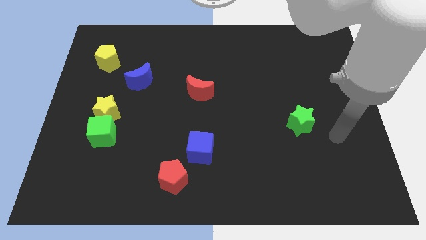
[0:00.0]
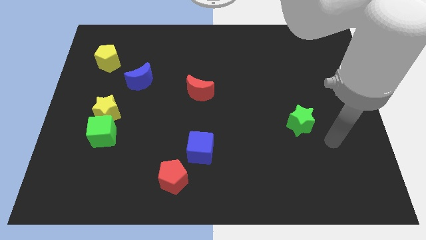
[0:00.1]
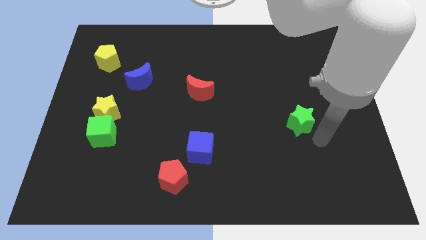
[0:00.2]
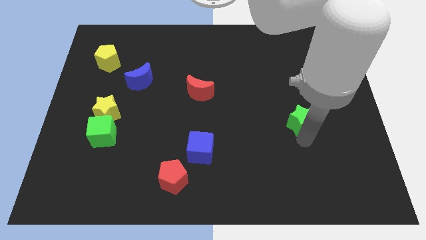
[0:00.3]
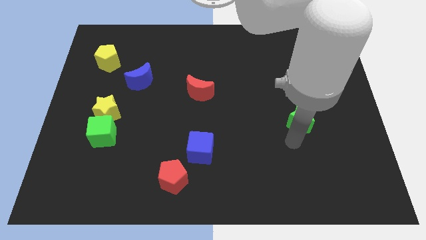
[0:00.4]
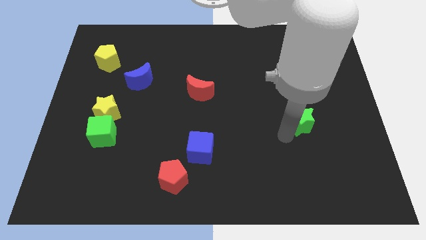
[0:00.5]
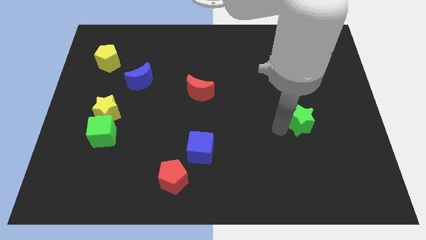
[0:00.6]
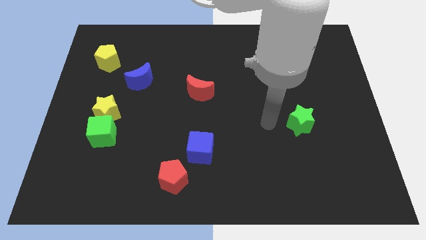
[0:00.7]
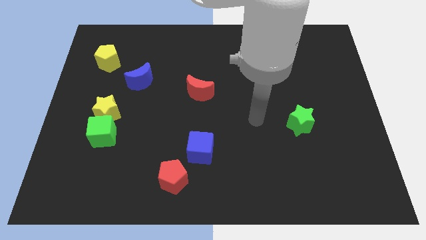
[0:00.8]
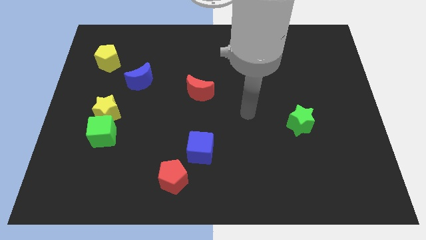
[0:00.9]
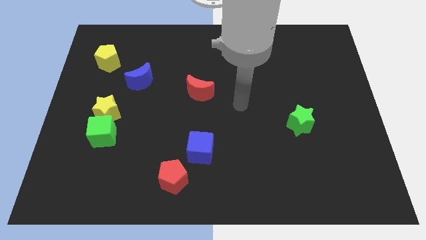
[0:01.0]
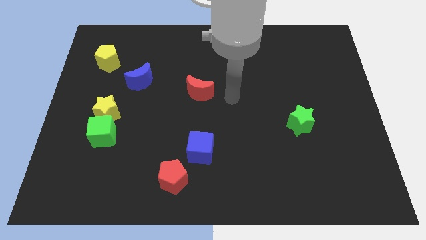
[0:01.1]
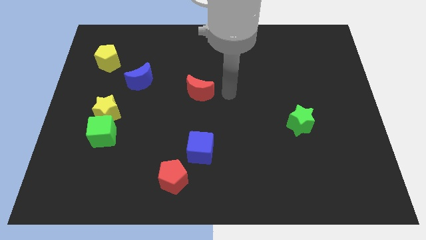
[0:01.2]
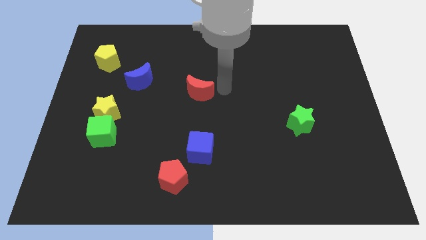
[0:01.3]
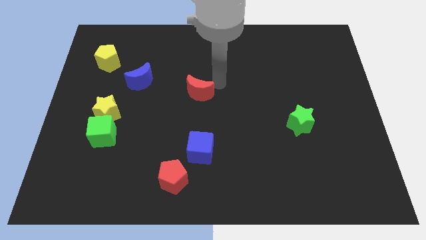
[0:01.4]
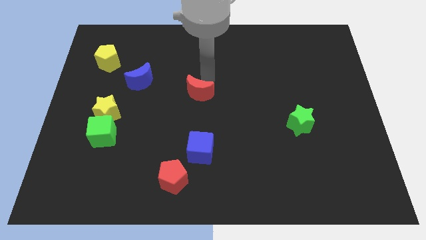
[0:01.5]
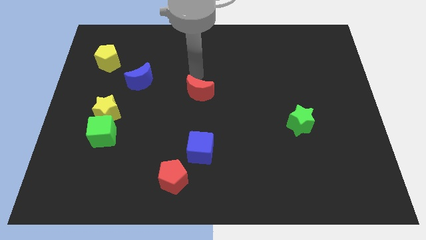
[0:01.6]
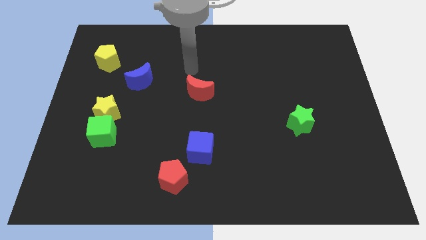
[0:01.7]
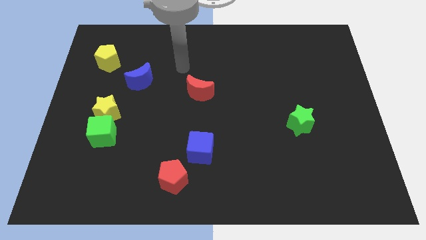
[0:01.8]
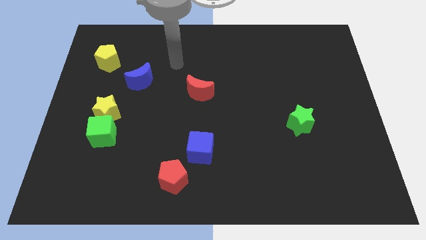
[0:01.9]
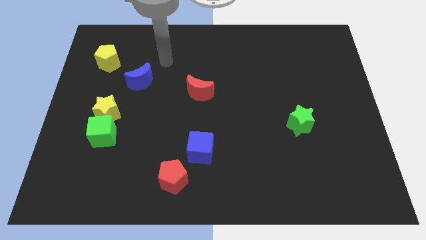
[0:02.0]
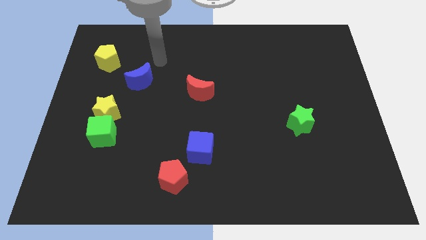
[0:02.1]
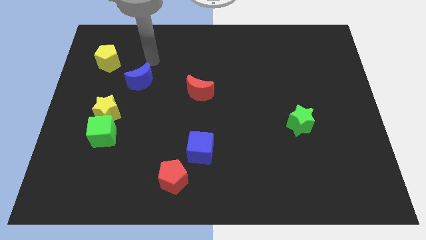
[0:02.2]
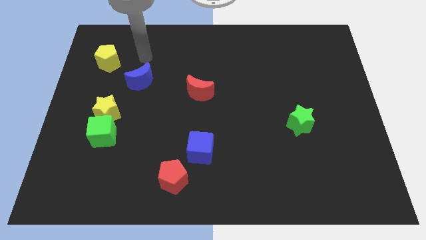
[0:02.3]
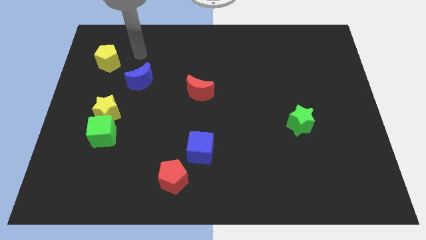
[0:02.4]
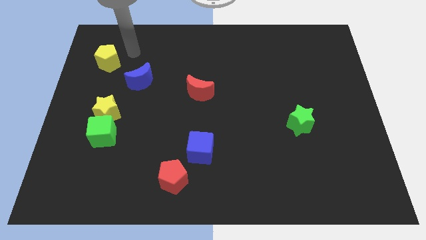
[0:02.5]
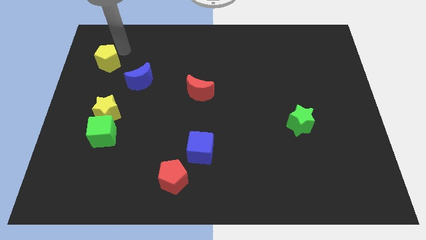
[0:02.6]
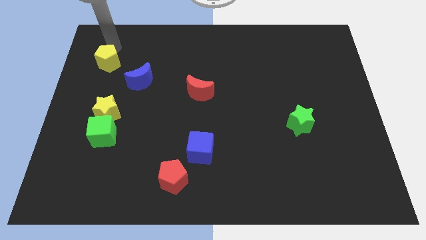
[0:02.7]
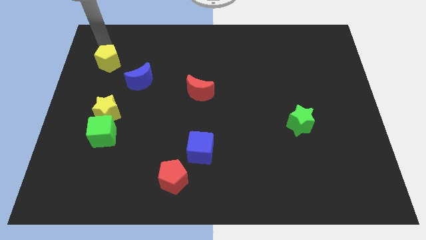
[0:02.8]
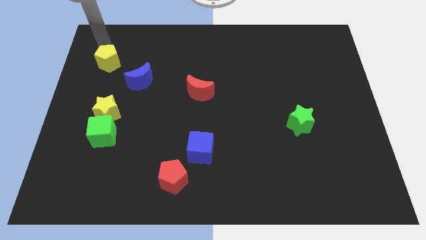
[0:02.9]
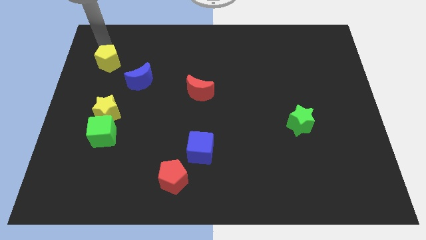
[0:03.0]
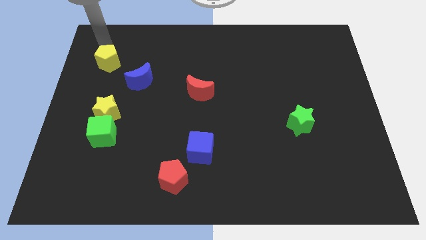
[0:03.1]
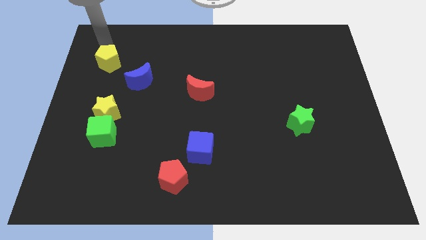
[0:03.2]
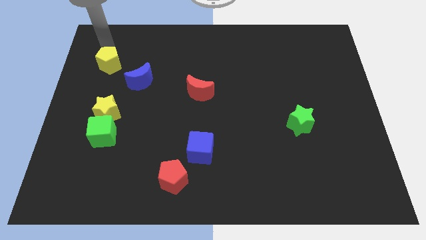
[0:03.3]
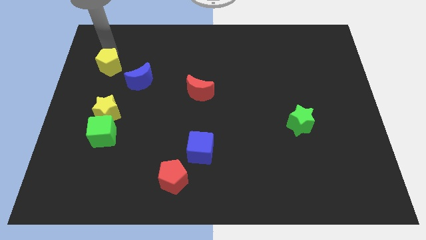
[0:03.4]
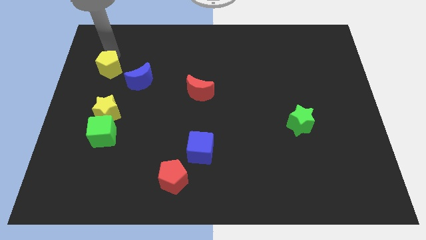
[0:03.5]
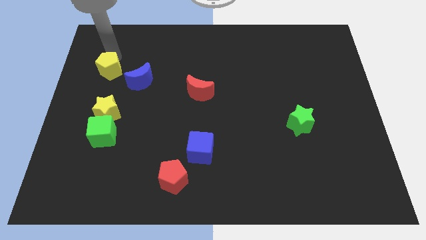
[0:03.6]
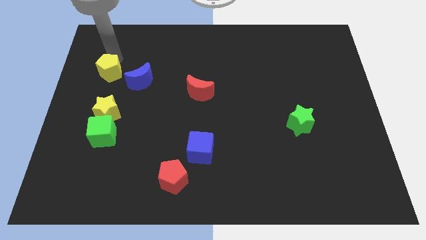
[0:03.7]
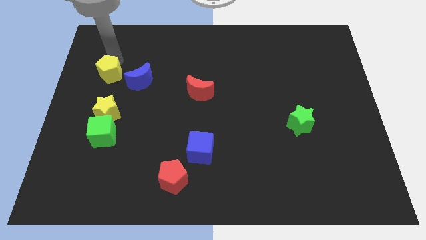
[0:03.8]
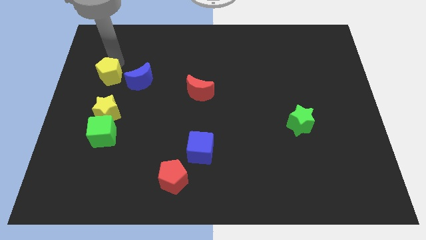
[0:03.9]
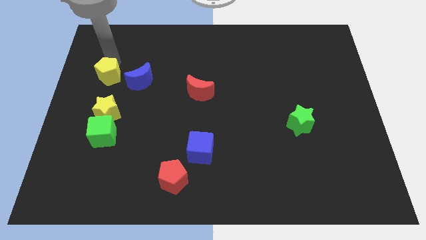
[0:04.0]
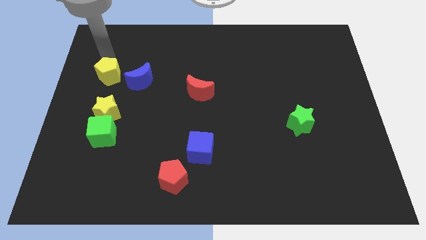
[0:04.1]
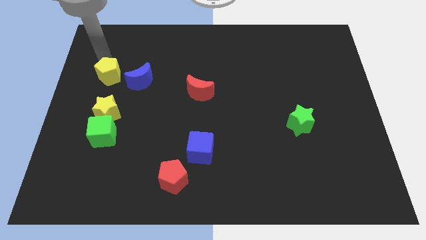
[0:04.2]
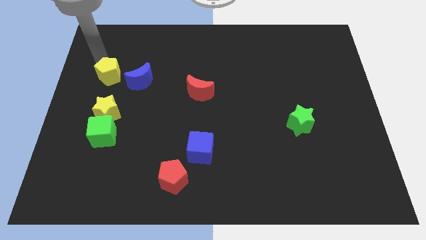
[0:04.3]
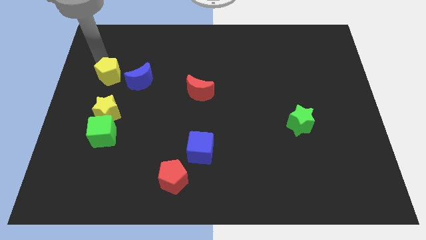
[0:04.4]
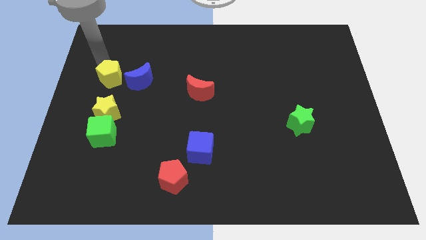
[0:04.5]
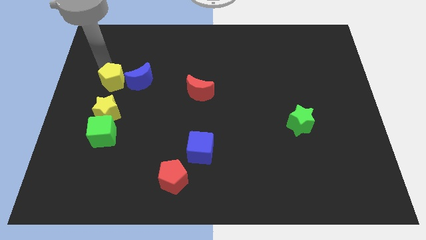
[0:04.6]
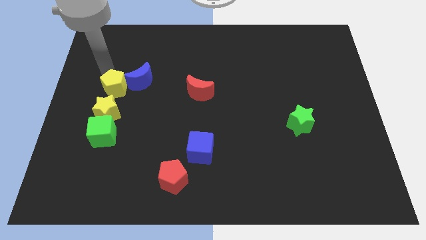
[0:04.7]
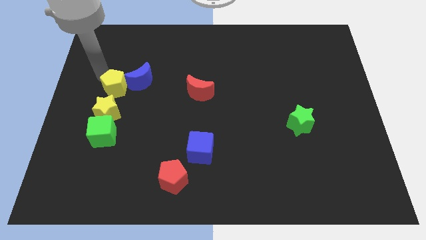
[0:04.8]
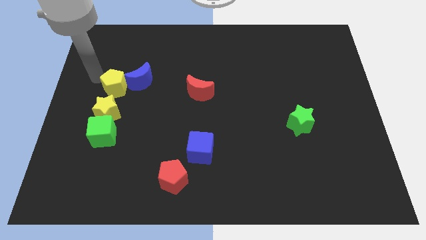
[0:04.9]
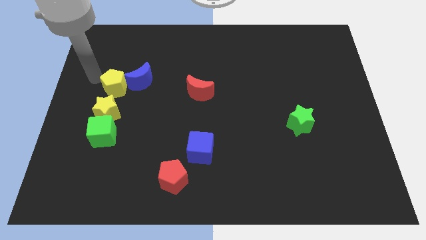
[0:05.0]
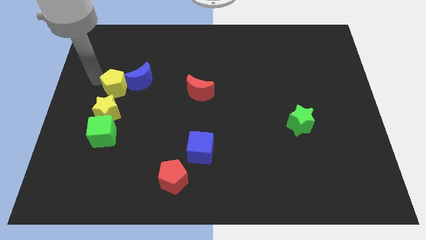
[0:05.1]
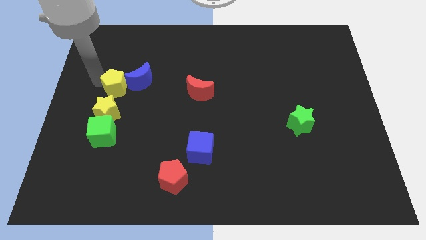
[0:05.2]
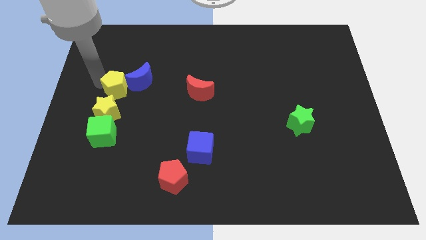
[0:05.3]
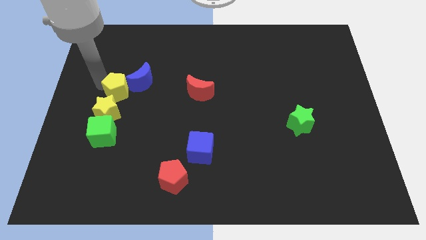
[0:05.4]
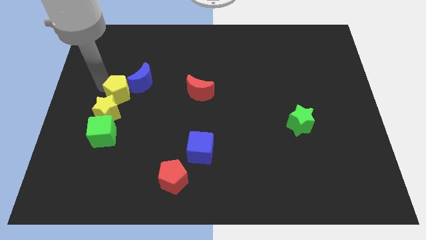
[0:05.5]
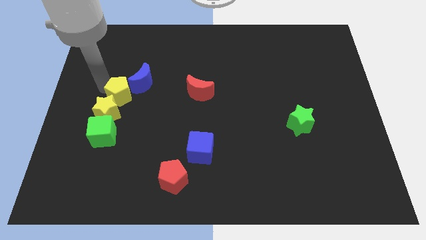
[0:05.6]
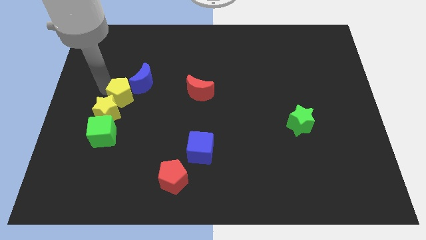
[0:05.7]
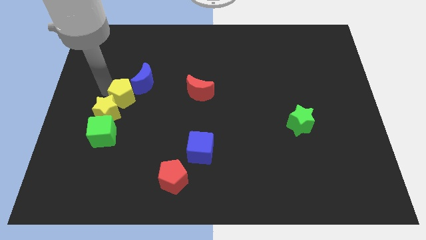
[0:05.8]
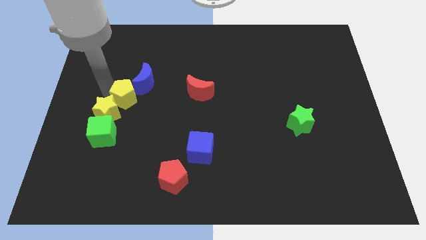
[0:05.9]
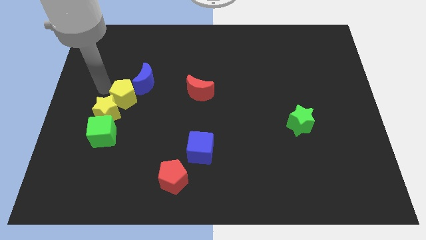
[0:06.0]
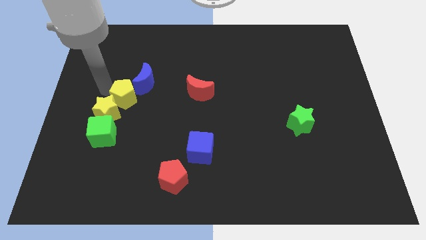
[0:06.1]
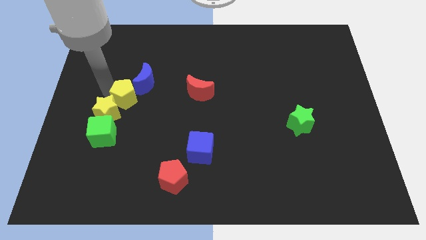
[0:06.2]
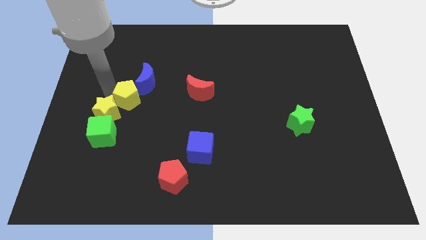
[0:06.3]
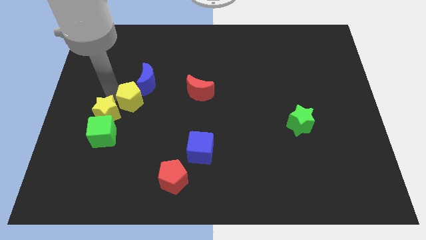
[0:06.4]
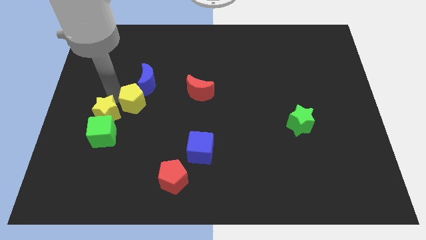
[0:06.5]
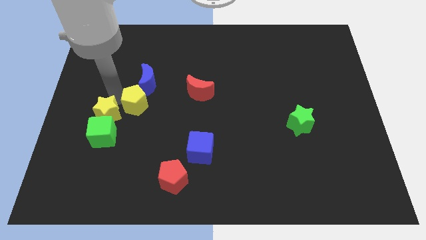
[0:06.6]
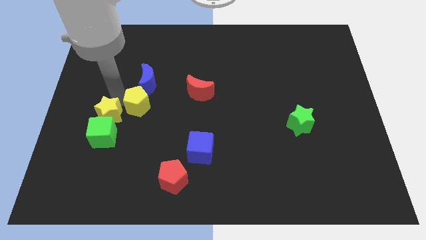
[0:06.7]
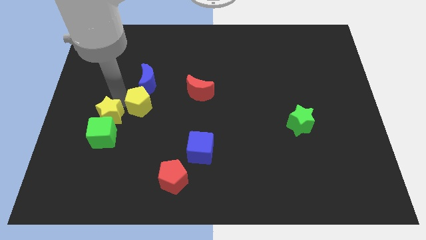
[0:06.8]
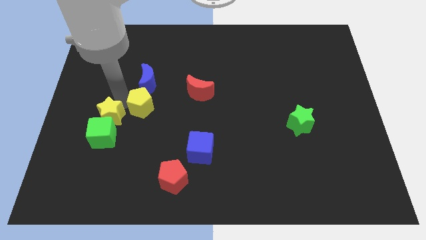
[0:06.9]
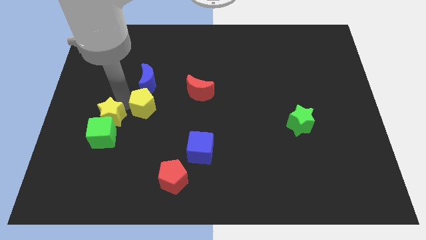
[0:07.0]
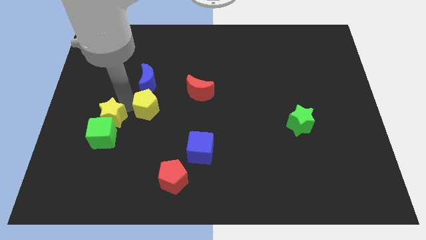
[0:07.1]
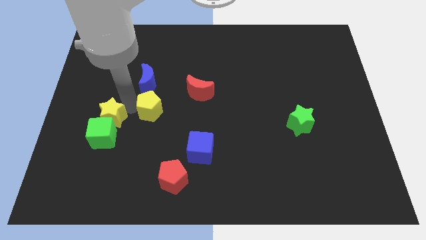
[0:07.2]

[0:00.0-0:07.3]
push the yellow pentagon diagonally down and to the right

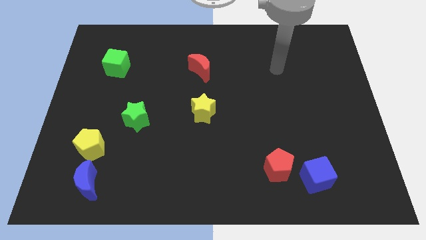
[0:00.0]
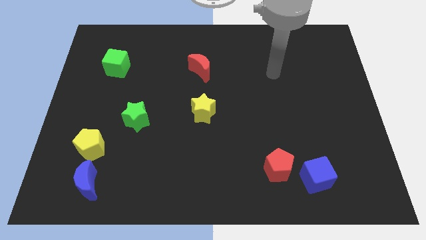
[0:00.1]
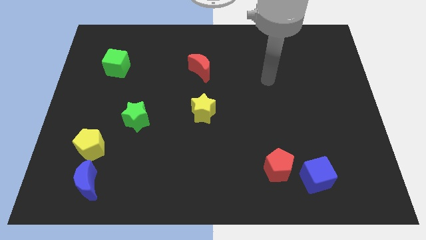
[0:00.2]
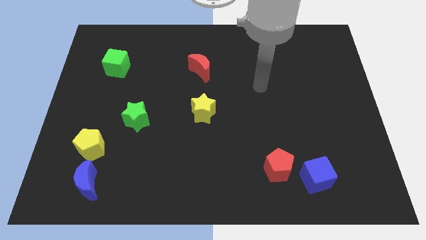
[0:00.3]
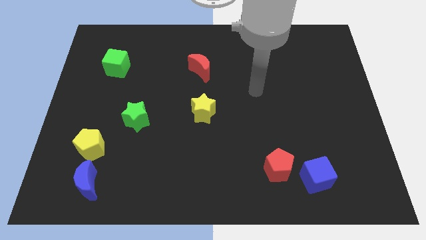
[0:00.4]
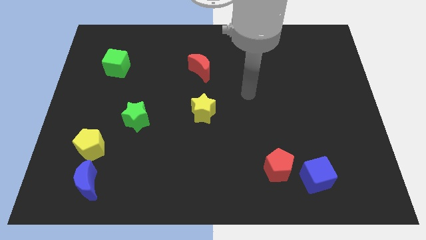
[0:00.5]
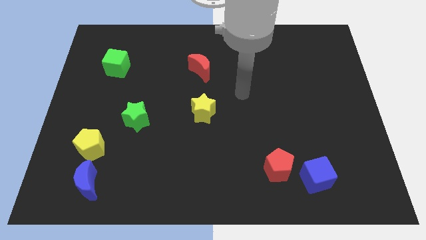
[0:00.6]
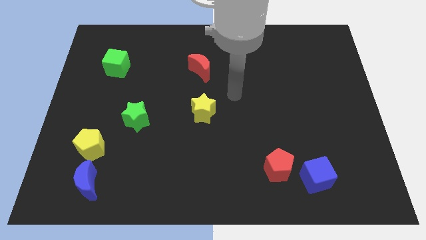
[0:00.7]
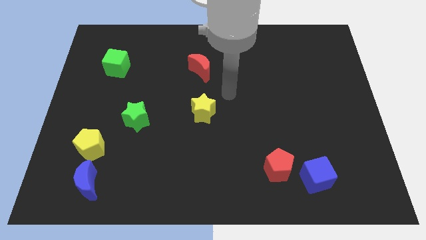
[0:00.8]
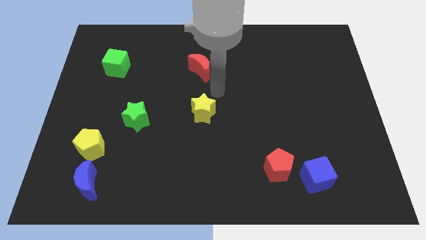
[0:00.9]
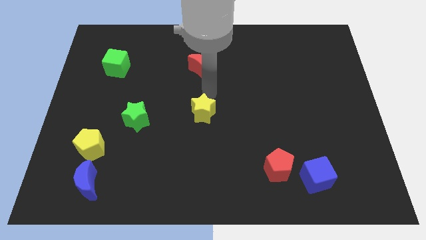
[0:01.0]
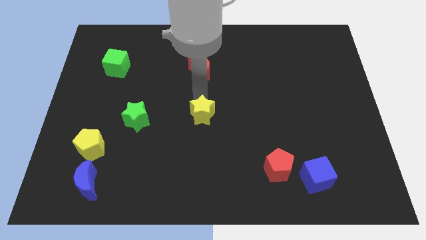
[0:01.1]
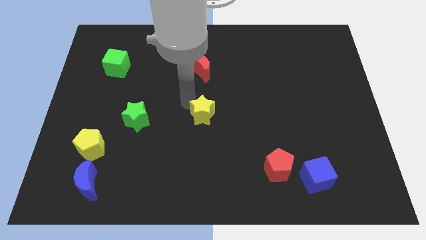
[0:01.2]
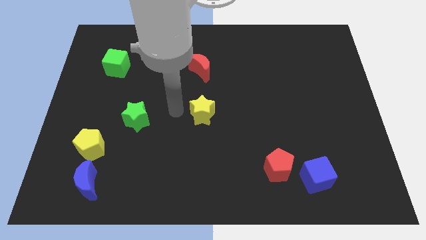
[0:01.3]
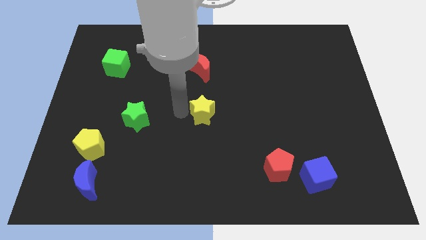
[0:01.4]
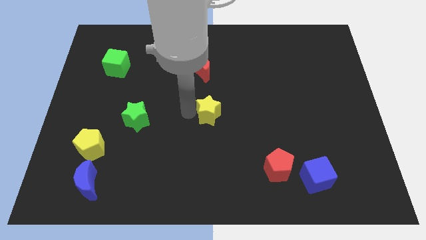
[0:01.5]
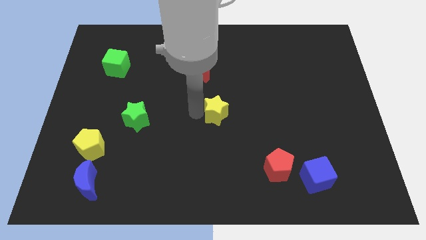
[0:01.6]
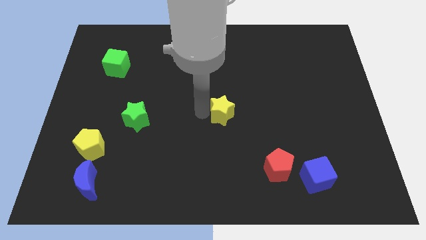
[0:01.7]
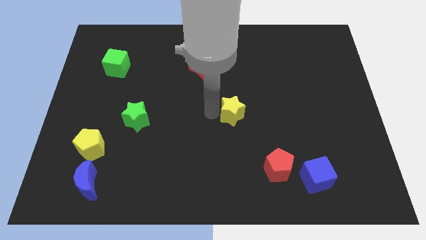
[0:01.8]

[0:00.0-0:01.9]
slide the yellow star a bit to the right
